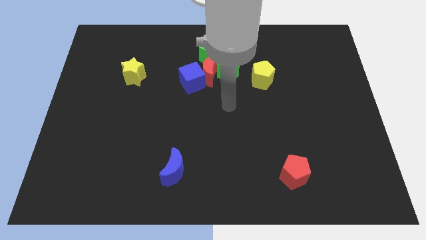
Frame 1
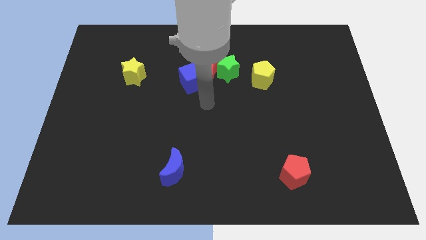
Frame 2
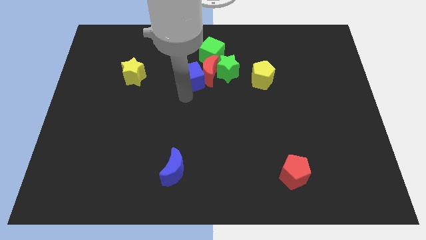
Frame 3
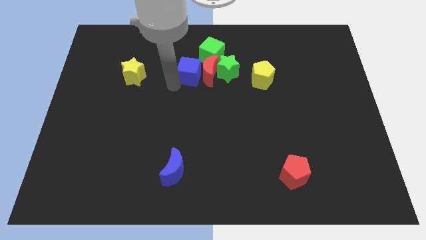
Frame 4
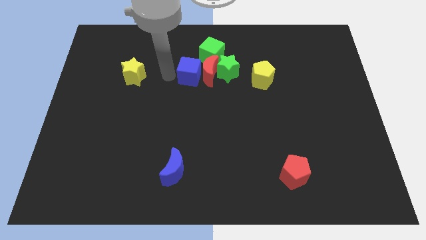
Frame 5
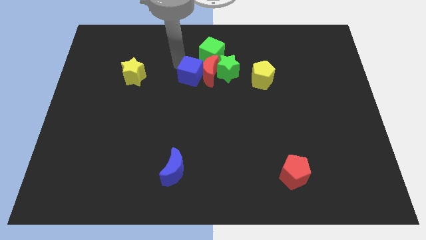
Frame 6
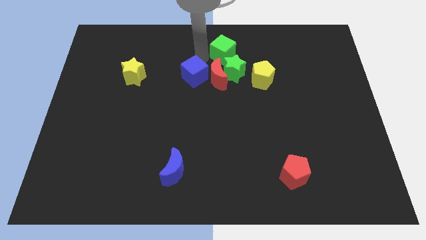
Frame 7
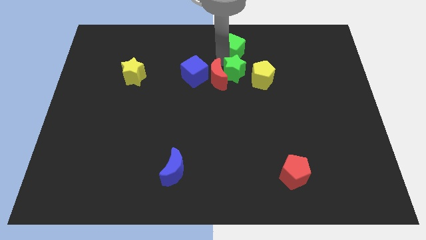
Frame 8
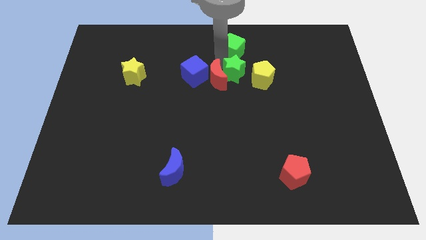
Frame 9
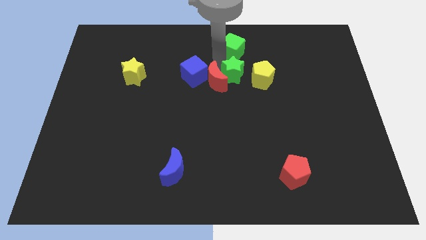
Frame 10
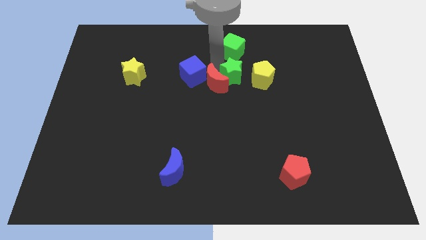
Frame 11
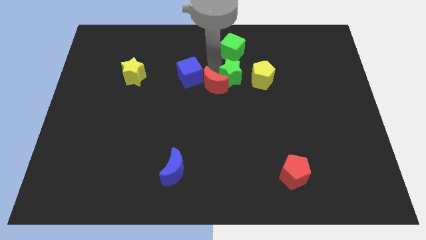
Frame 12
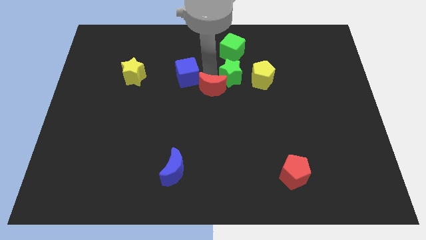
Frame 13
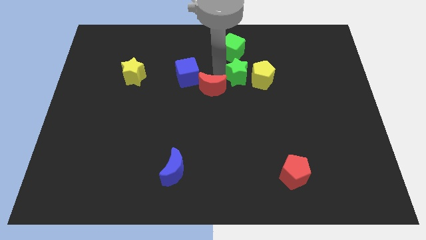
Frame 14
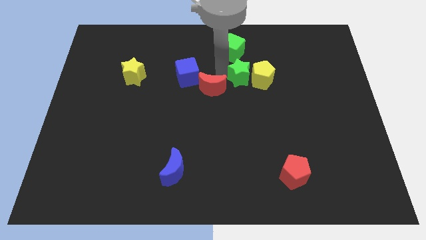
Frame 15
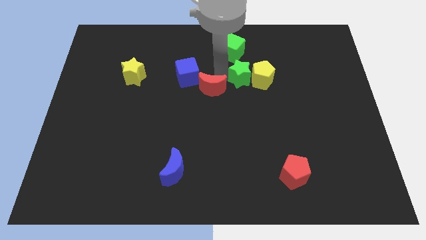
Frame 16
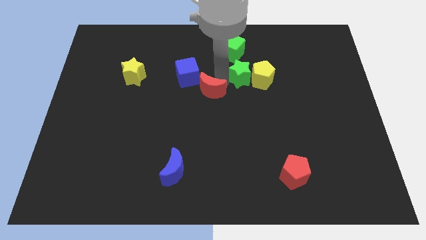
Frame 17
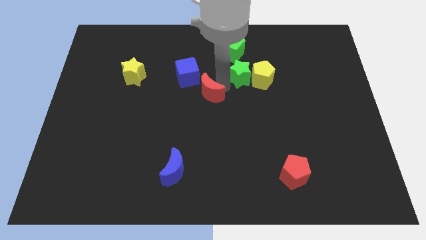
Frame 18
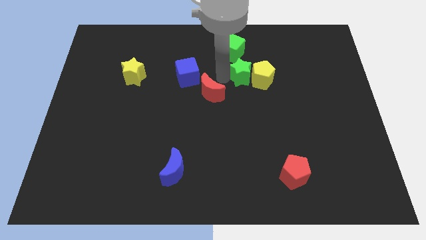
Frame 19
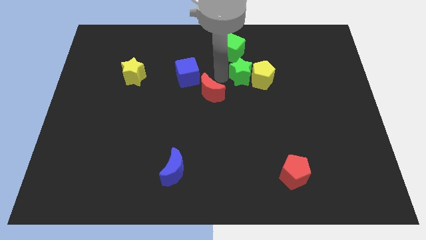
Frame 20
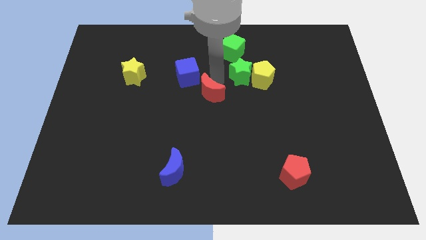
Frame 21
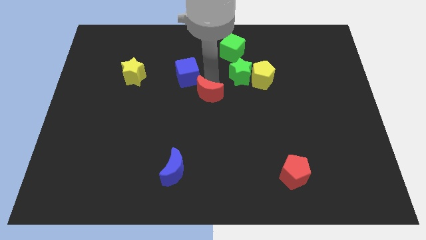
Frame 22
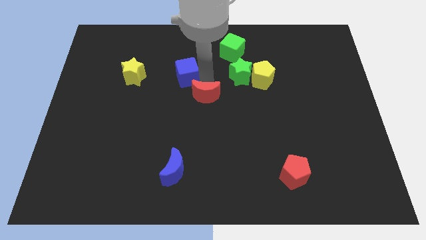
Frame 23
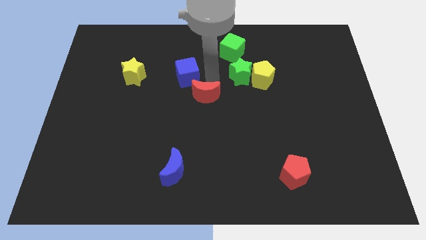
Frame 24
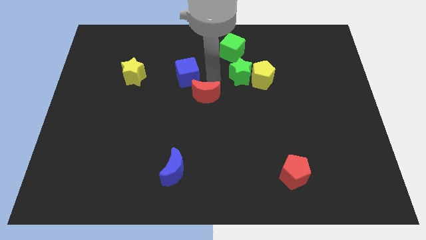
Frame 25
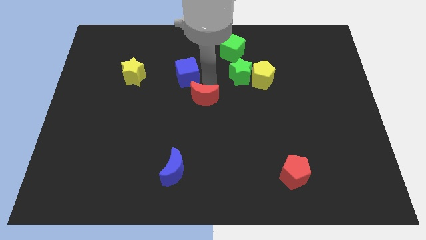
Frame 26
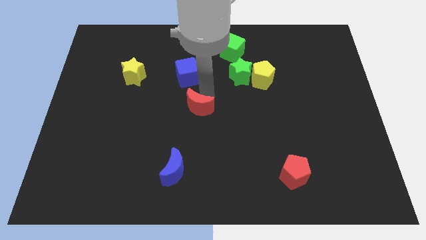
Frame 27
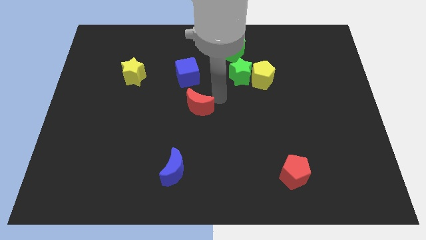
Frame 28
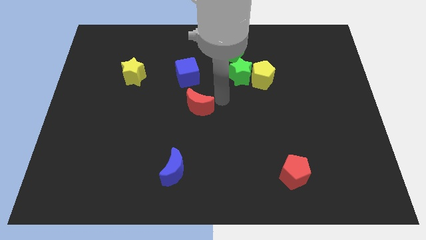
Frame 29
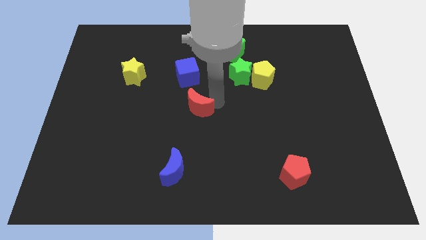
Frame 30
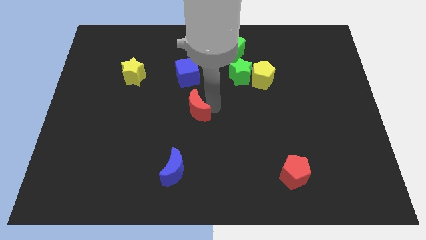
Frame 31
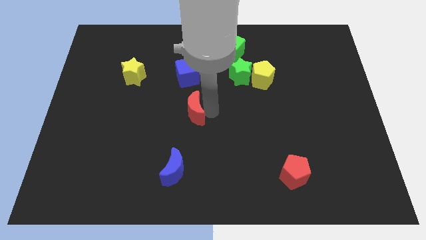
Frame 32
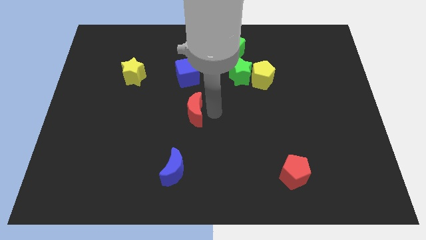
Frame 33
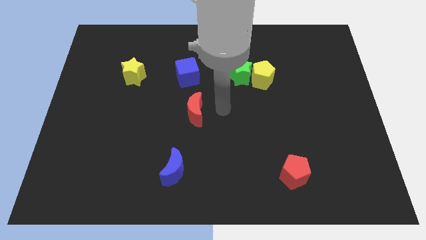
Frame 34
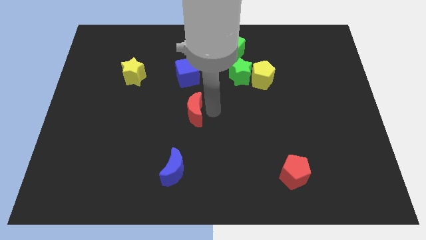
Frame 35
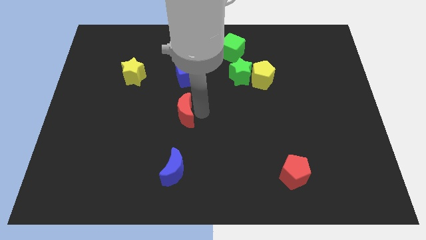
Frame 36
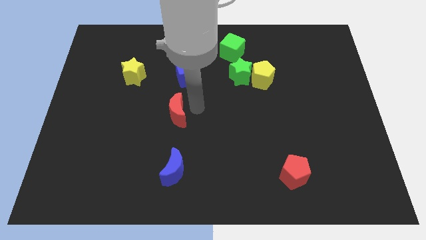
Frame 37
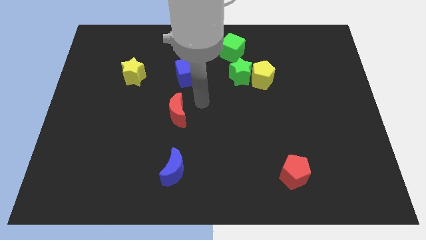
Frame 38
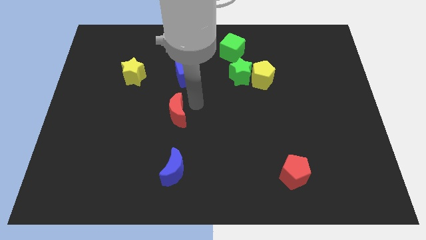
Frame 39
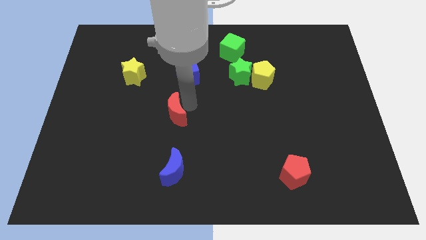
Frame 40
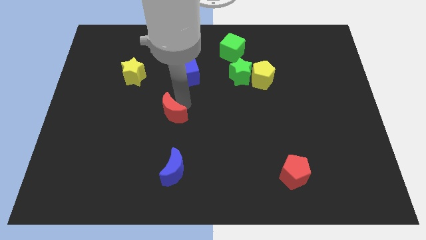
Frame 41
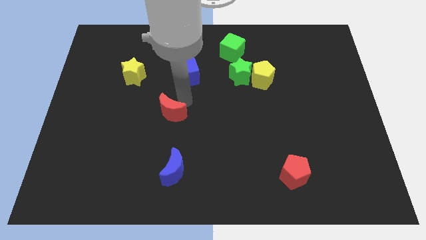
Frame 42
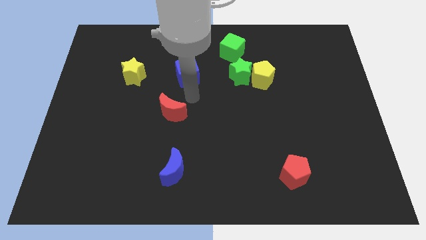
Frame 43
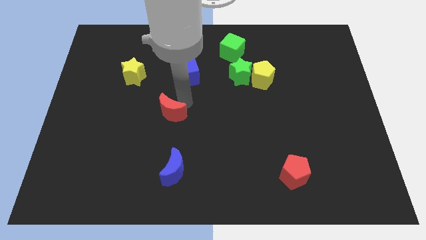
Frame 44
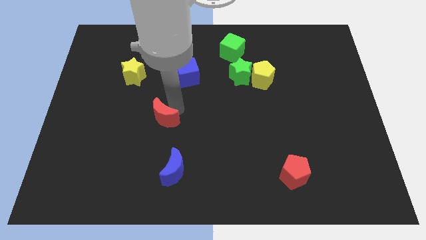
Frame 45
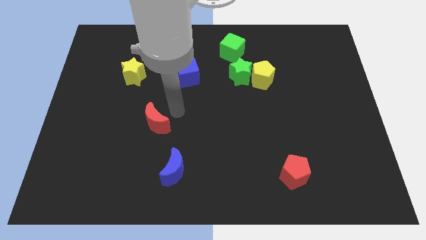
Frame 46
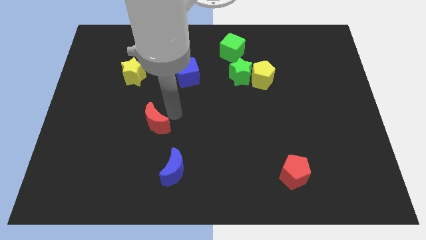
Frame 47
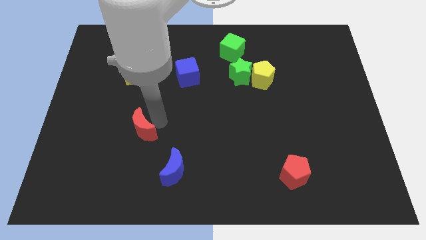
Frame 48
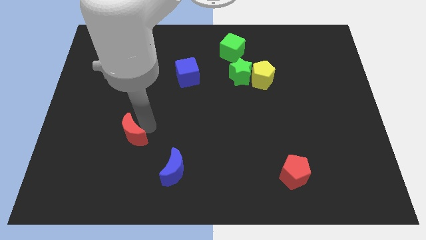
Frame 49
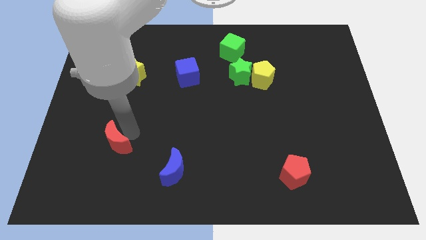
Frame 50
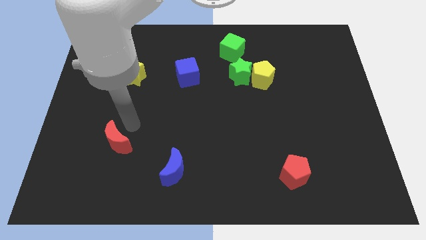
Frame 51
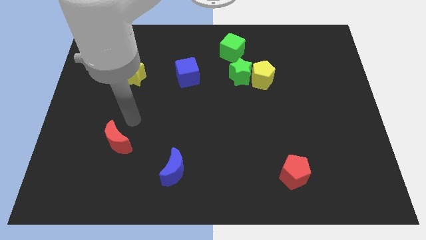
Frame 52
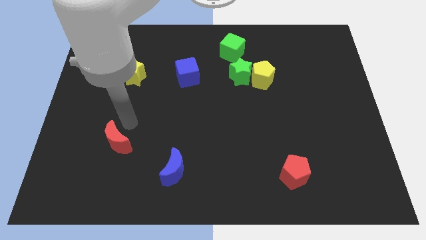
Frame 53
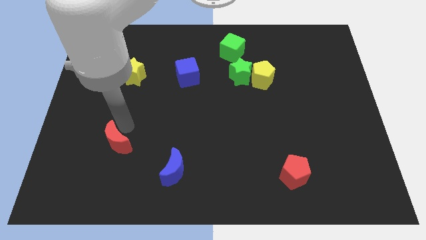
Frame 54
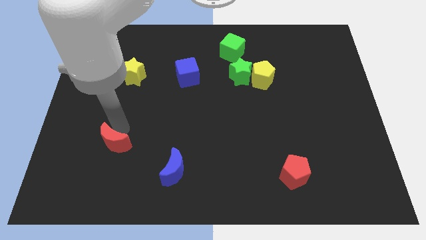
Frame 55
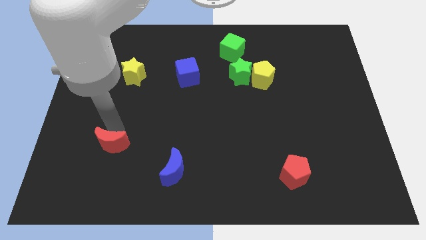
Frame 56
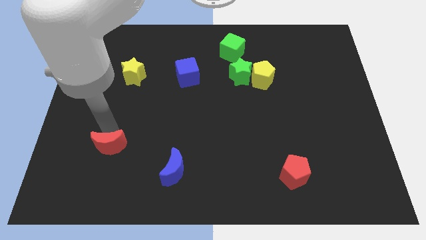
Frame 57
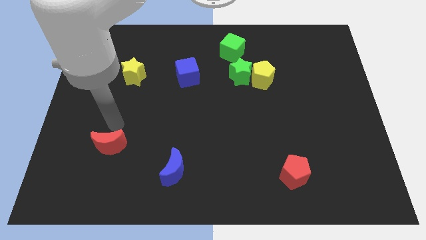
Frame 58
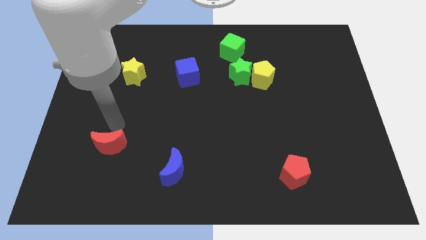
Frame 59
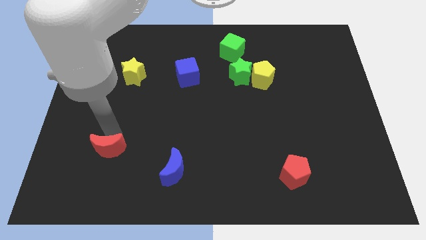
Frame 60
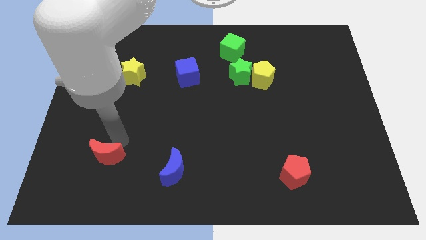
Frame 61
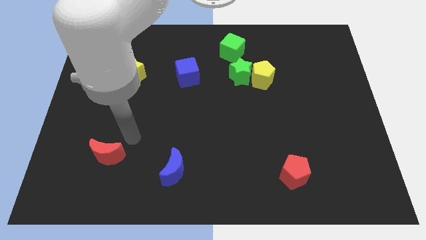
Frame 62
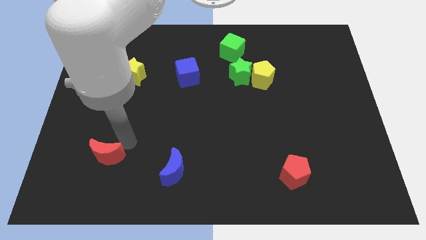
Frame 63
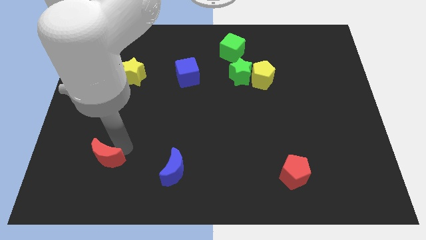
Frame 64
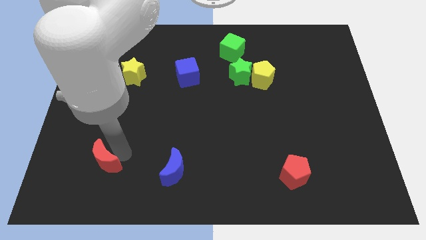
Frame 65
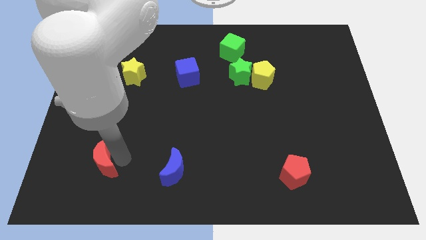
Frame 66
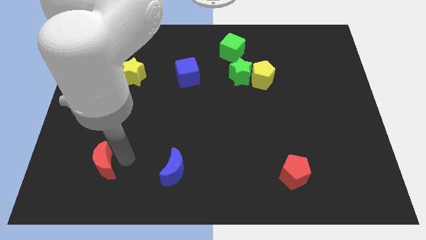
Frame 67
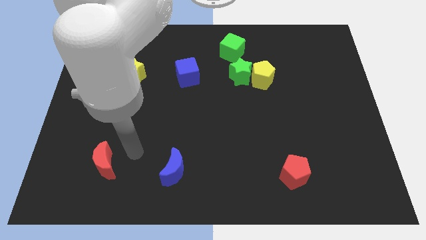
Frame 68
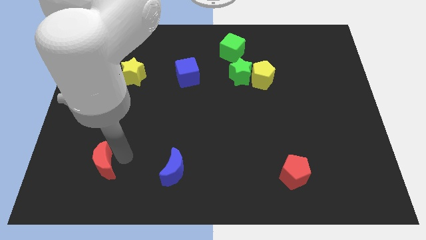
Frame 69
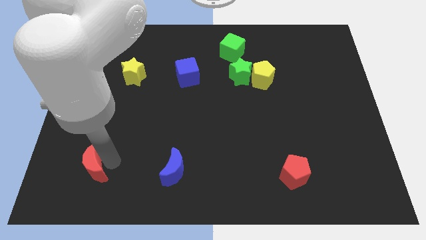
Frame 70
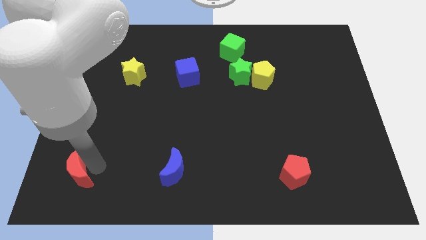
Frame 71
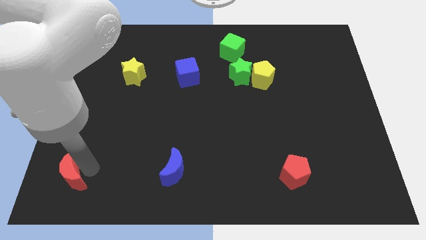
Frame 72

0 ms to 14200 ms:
move the red moon to the bottom left
